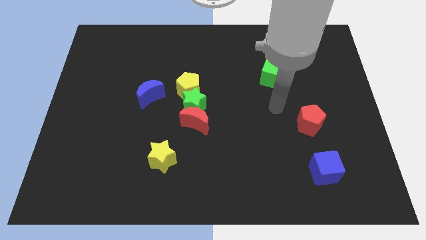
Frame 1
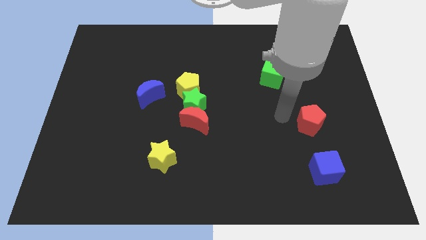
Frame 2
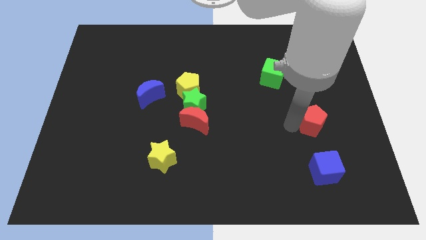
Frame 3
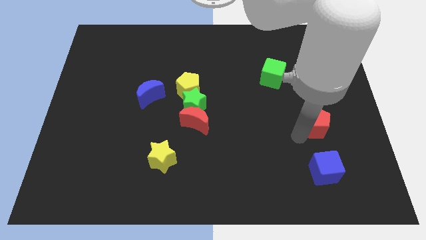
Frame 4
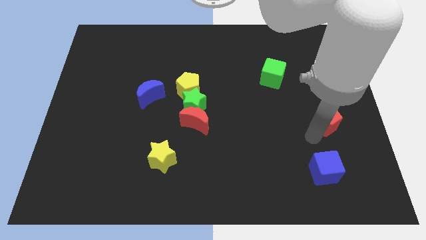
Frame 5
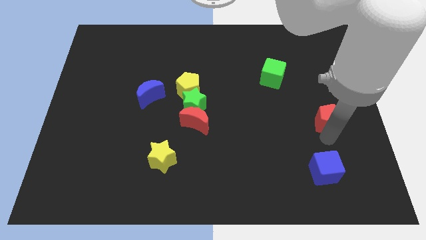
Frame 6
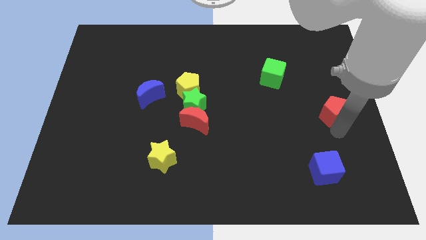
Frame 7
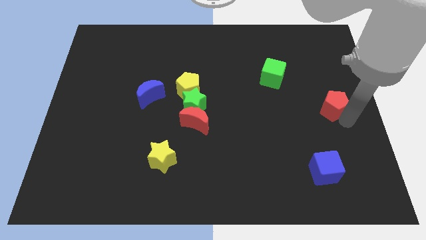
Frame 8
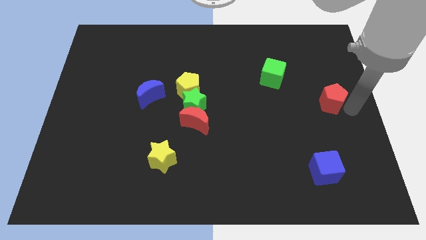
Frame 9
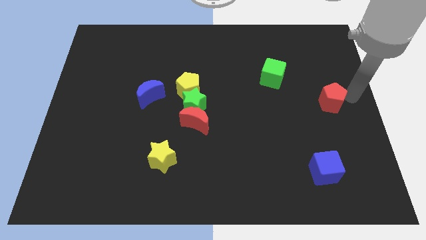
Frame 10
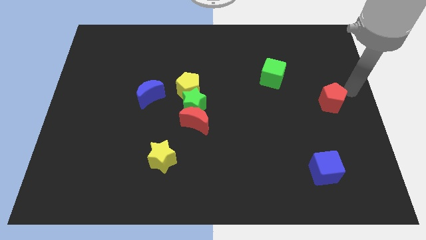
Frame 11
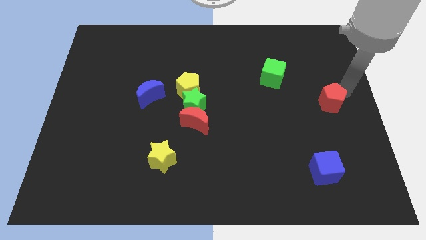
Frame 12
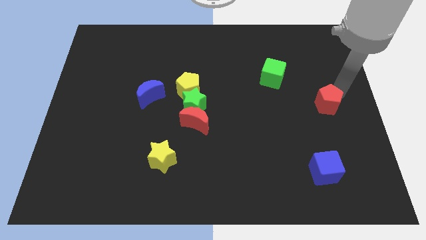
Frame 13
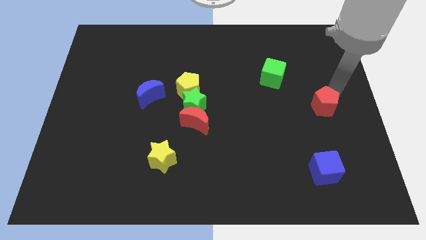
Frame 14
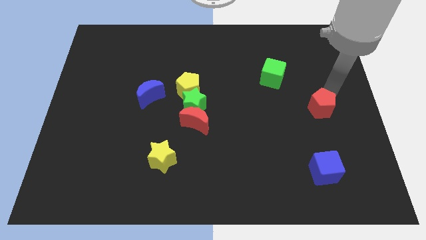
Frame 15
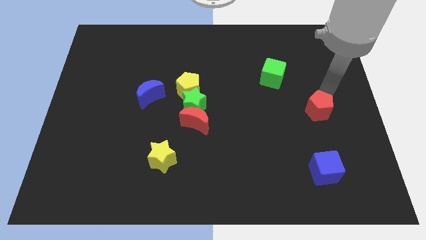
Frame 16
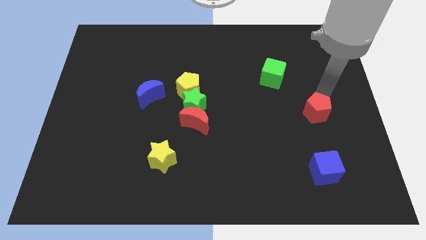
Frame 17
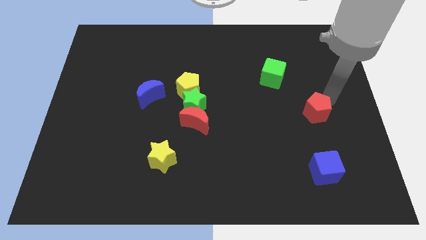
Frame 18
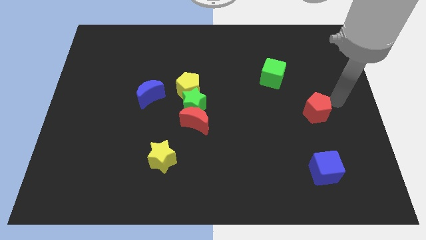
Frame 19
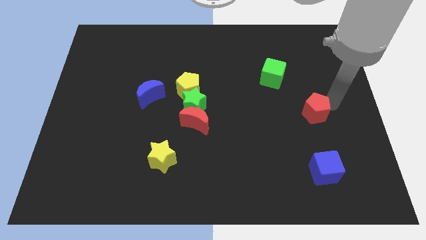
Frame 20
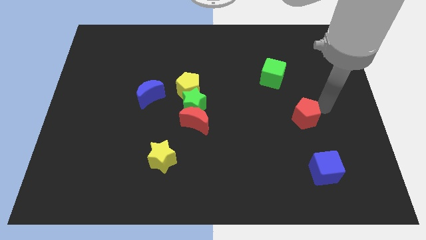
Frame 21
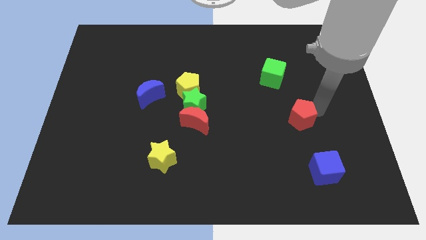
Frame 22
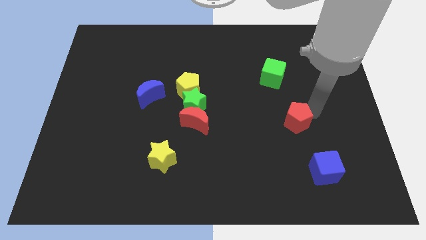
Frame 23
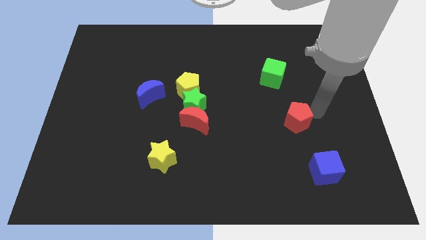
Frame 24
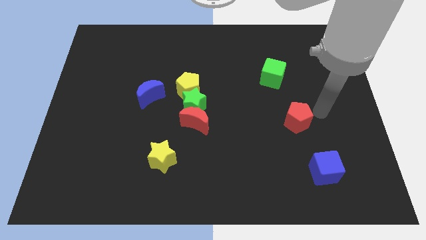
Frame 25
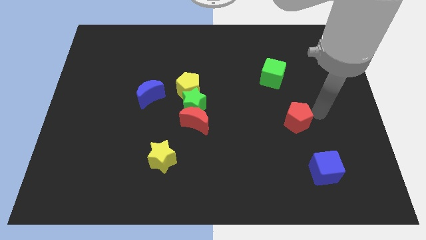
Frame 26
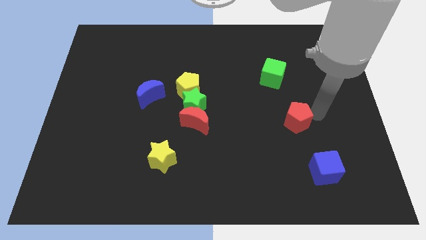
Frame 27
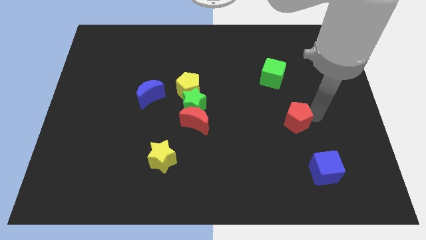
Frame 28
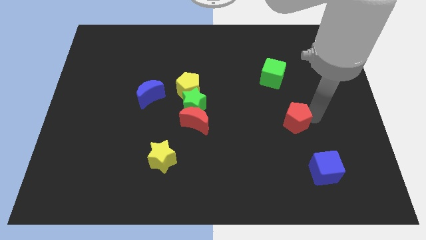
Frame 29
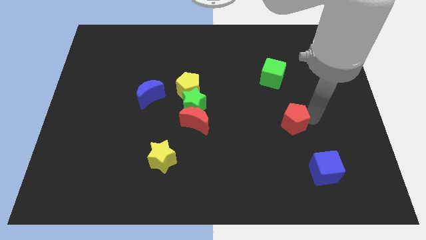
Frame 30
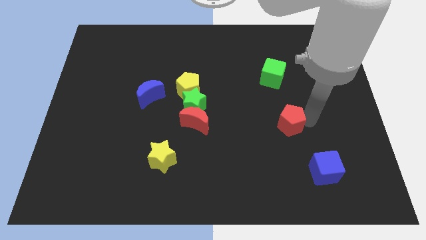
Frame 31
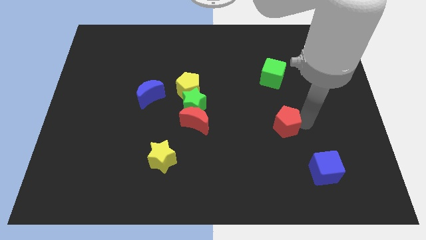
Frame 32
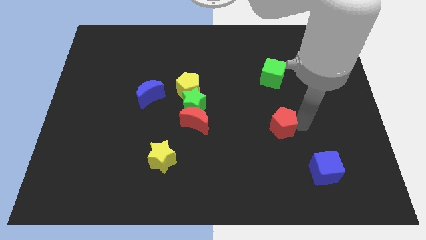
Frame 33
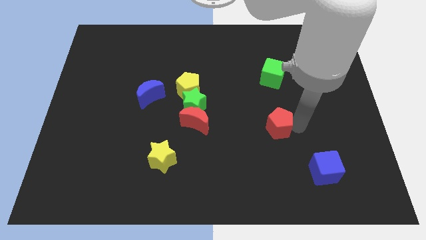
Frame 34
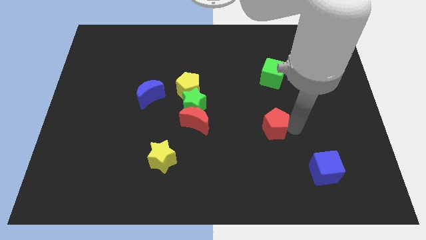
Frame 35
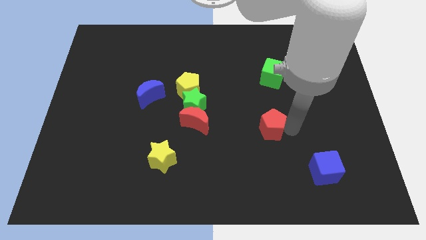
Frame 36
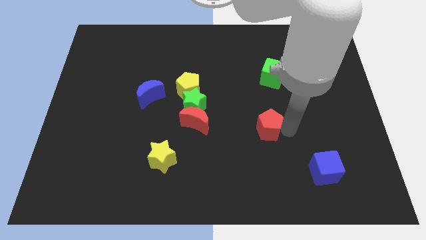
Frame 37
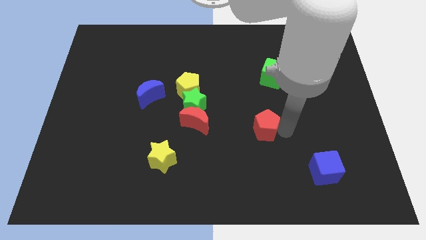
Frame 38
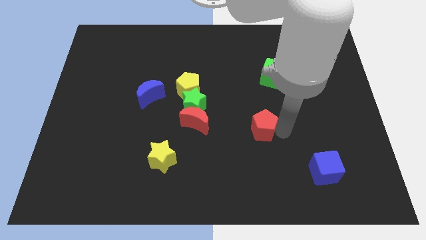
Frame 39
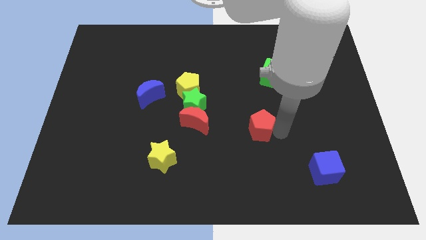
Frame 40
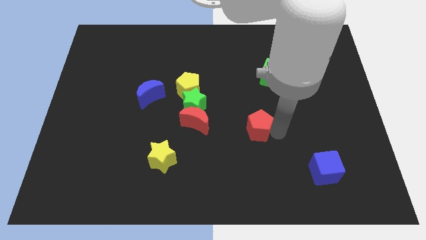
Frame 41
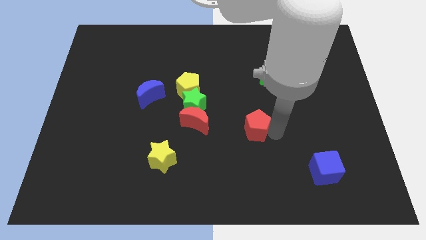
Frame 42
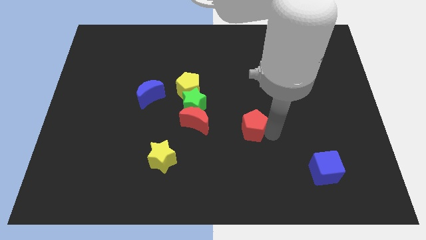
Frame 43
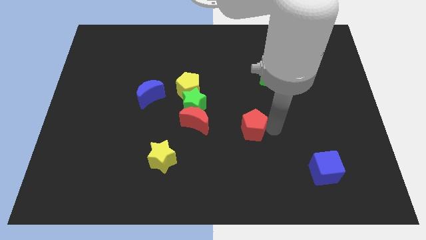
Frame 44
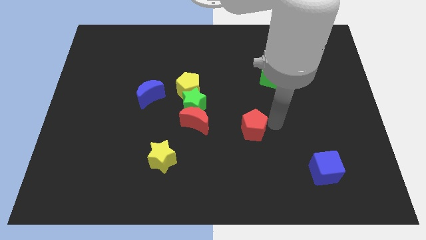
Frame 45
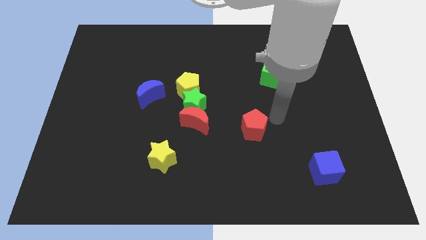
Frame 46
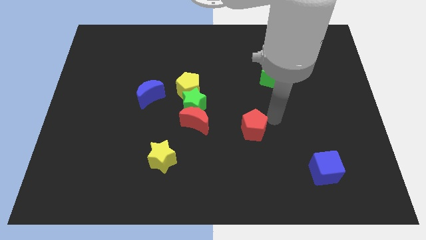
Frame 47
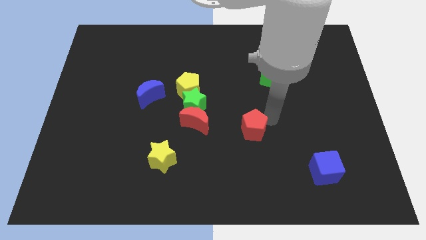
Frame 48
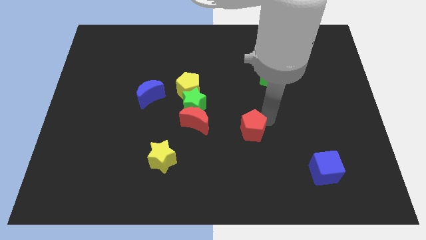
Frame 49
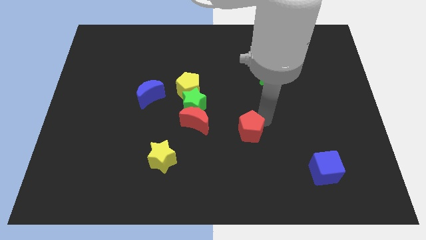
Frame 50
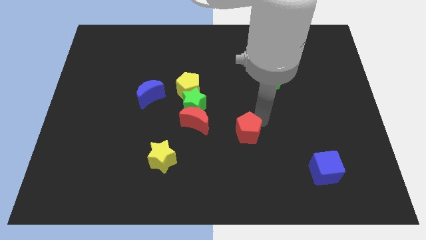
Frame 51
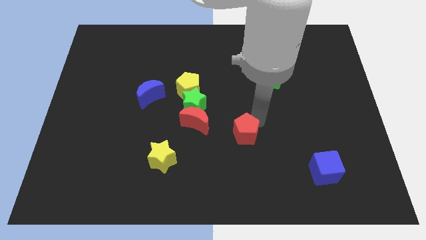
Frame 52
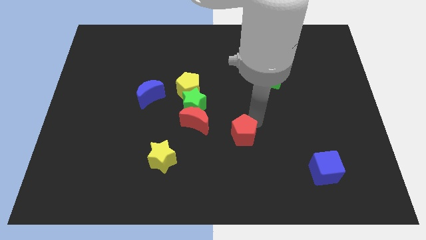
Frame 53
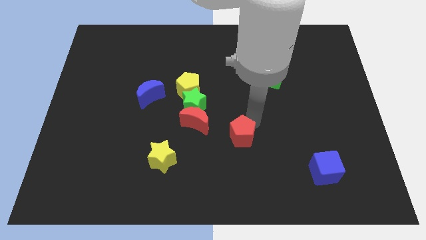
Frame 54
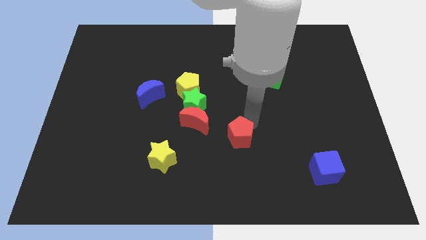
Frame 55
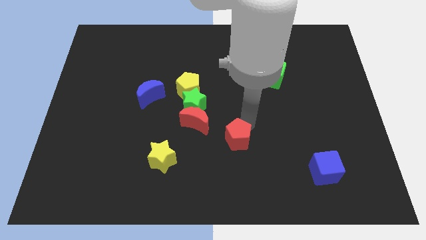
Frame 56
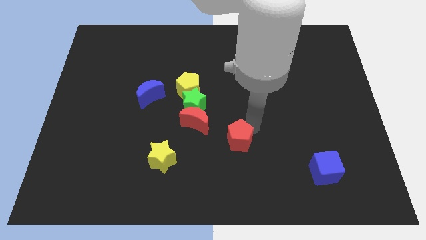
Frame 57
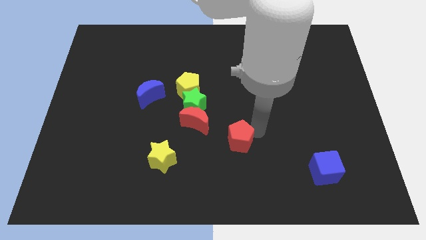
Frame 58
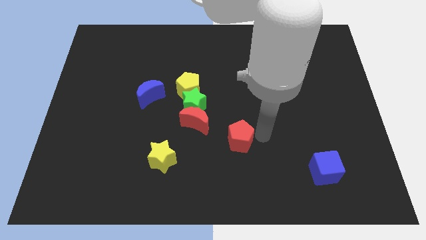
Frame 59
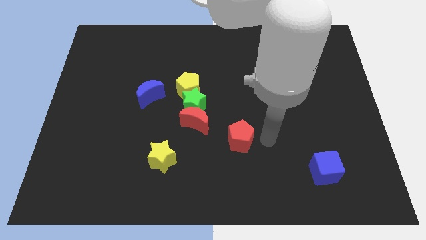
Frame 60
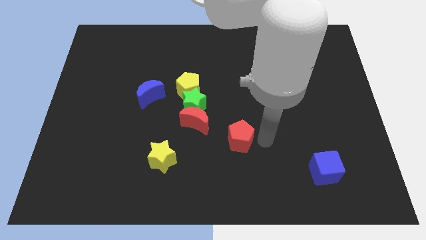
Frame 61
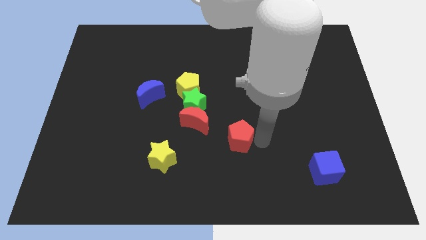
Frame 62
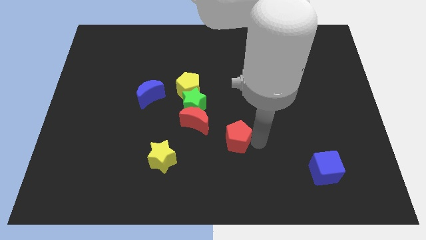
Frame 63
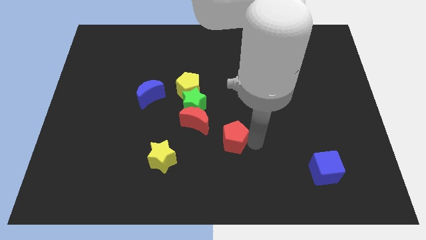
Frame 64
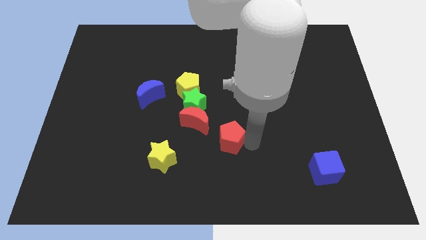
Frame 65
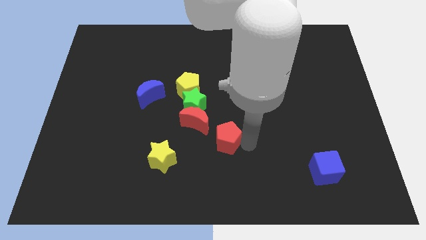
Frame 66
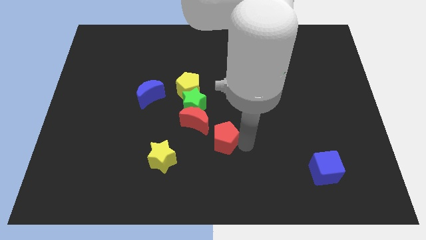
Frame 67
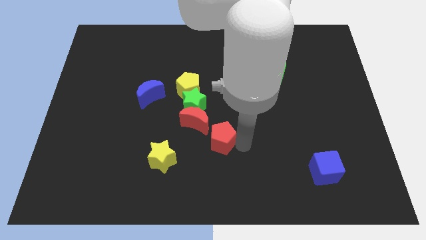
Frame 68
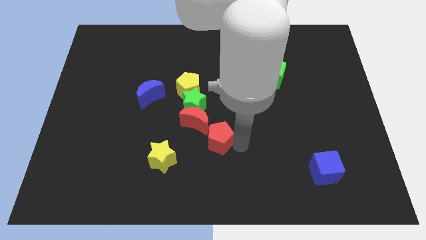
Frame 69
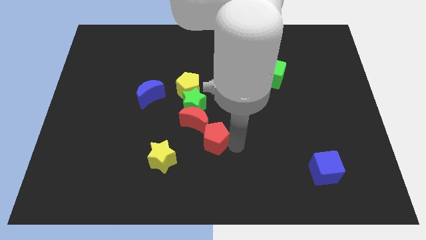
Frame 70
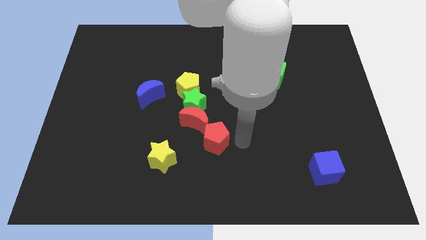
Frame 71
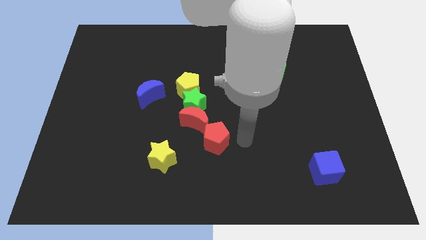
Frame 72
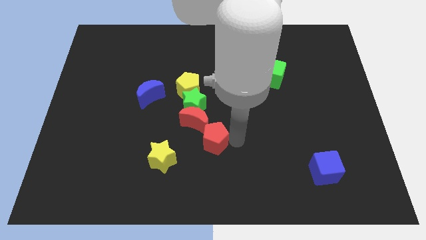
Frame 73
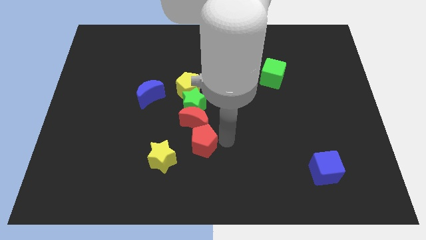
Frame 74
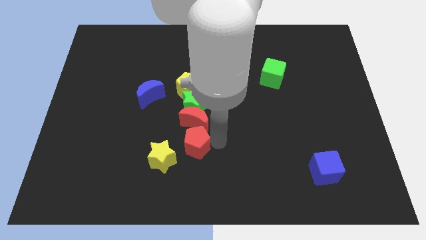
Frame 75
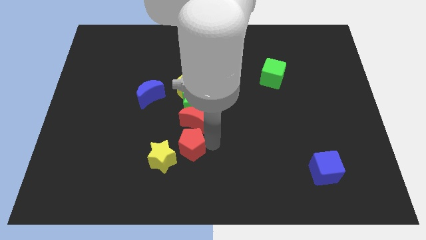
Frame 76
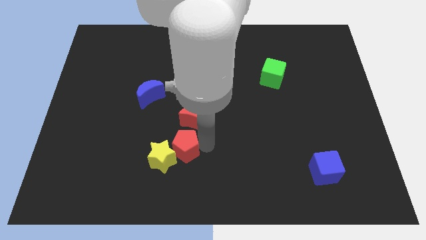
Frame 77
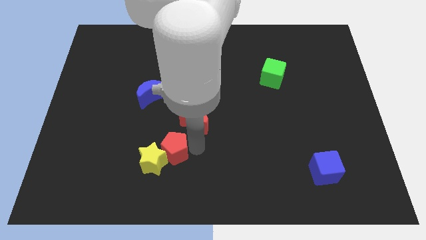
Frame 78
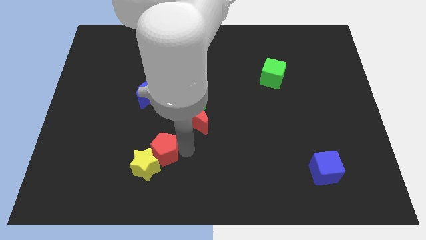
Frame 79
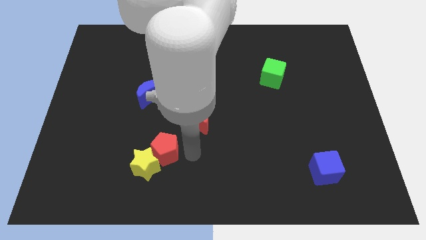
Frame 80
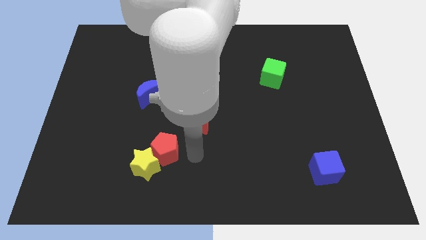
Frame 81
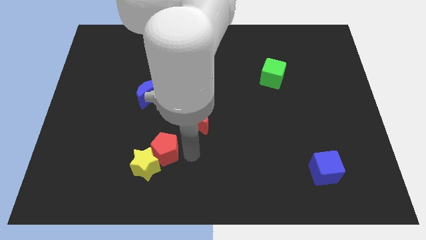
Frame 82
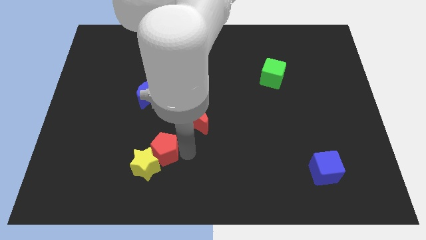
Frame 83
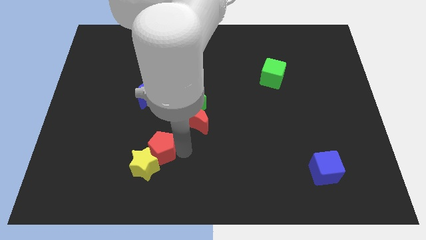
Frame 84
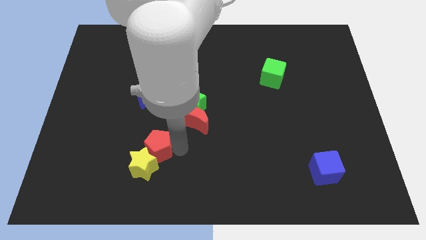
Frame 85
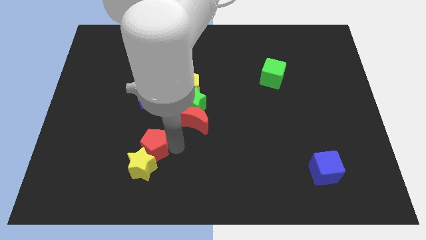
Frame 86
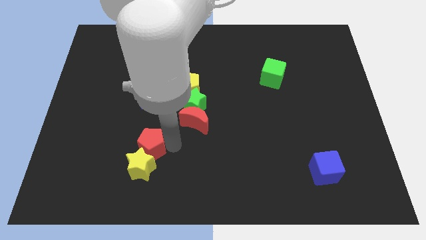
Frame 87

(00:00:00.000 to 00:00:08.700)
slide the red pentagon diagonally up and to the left of the yellow star
